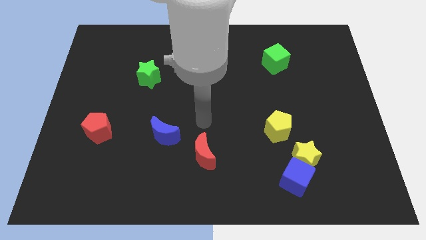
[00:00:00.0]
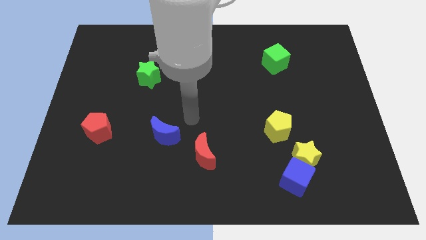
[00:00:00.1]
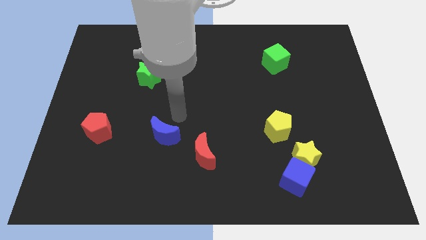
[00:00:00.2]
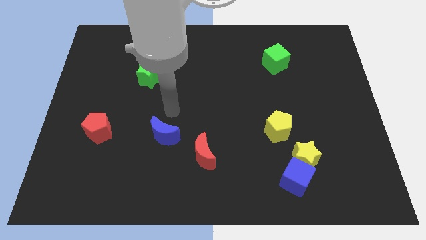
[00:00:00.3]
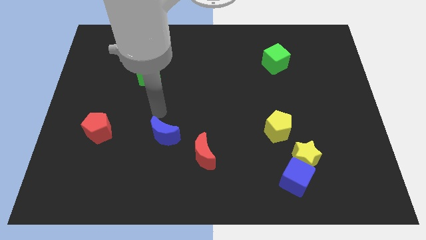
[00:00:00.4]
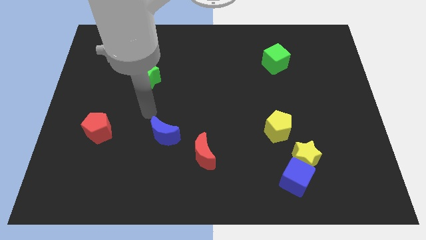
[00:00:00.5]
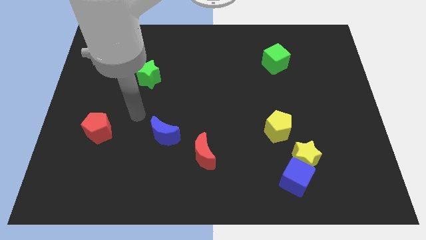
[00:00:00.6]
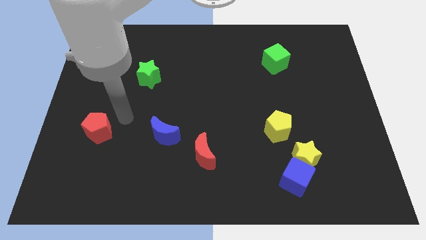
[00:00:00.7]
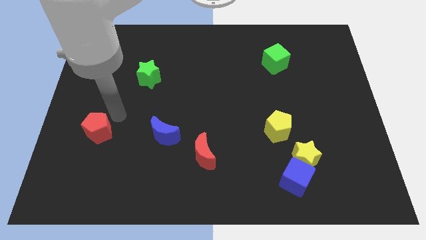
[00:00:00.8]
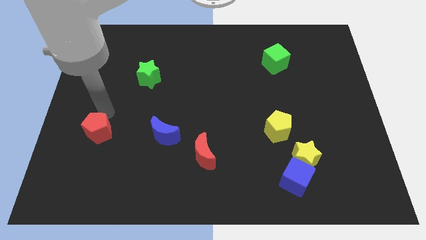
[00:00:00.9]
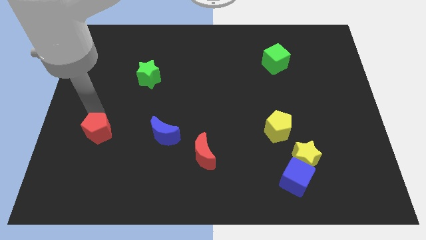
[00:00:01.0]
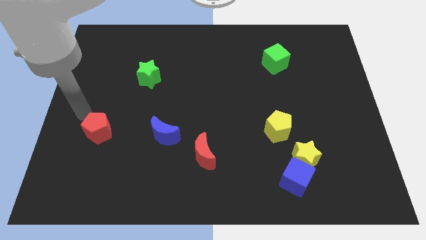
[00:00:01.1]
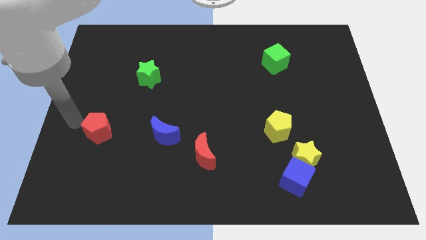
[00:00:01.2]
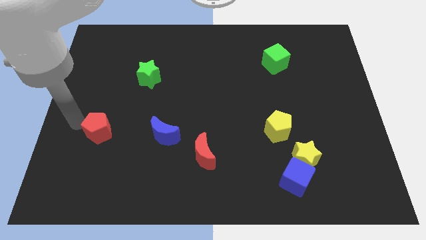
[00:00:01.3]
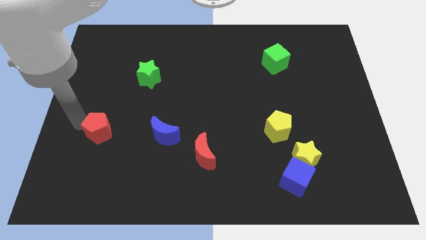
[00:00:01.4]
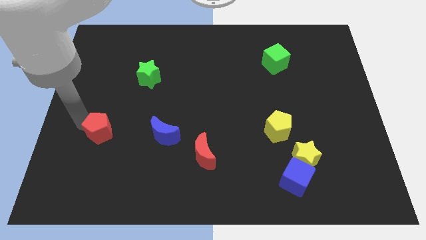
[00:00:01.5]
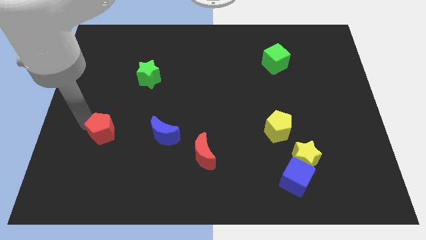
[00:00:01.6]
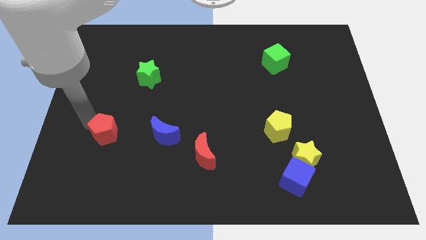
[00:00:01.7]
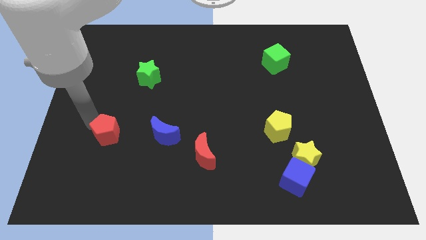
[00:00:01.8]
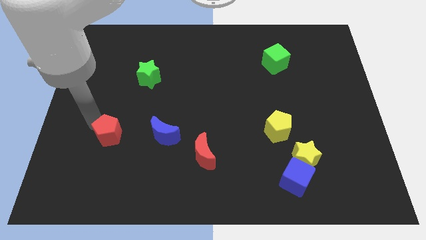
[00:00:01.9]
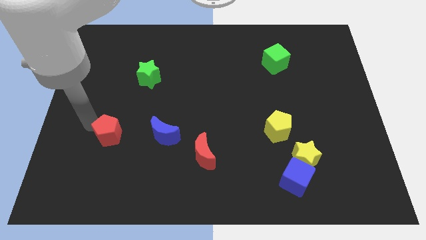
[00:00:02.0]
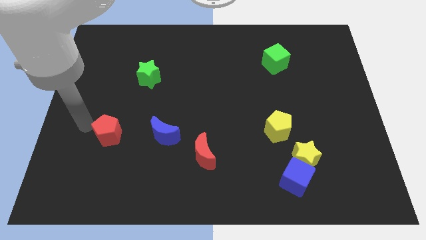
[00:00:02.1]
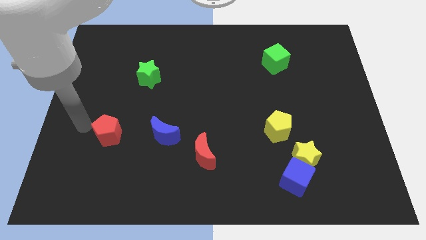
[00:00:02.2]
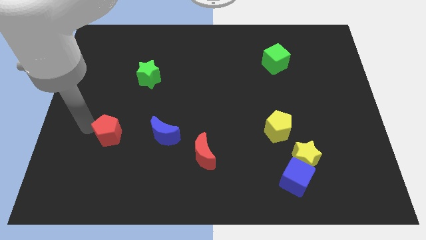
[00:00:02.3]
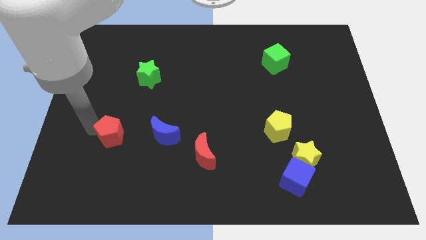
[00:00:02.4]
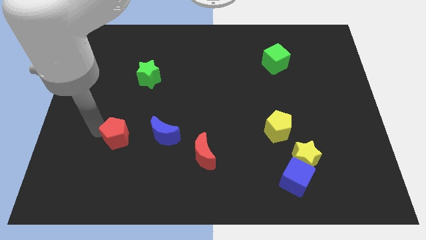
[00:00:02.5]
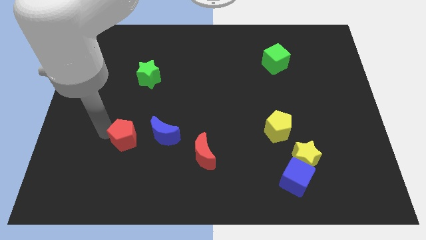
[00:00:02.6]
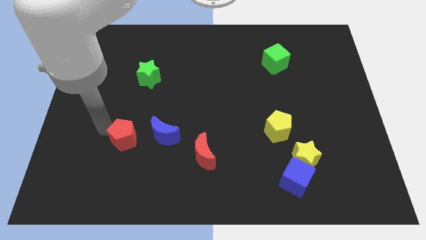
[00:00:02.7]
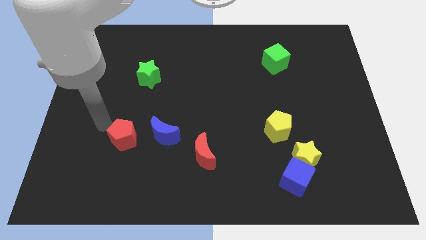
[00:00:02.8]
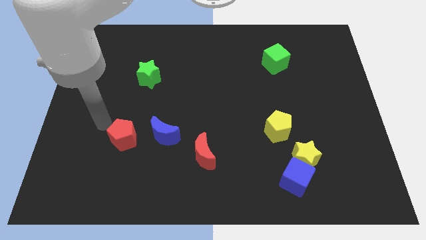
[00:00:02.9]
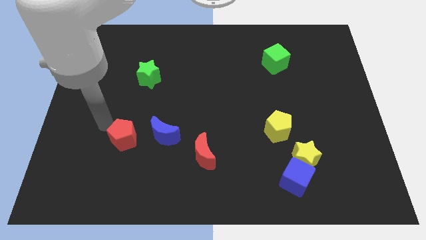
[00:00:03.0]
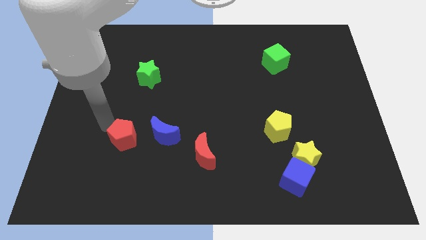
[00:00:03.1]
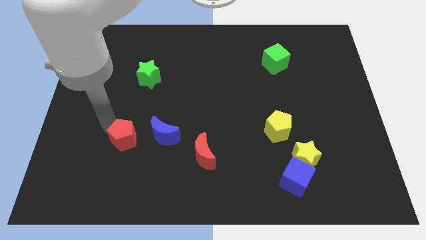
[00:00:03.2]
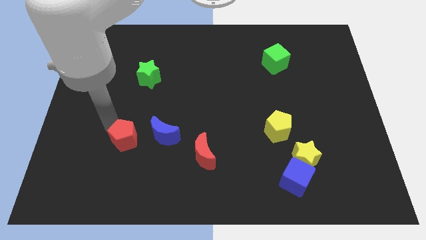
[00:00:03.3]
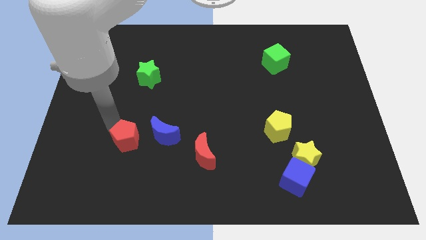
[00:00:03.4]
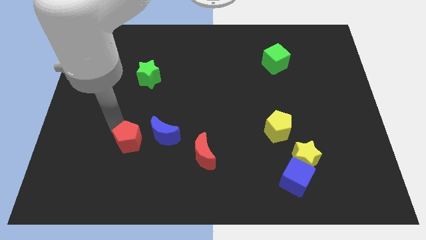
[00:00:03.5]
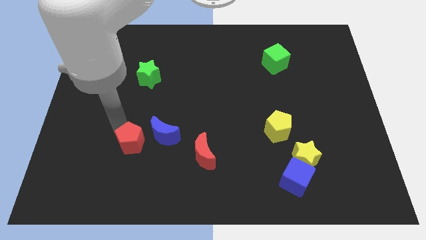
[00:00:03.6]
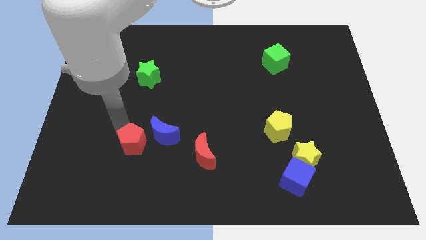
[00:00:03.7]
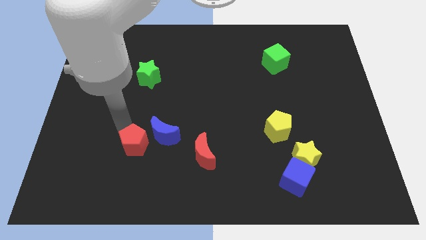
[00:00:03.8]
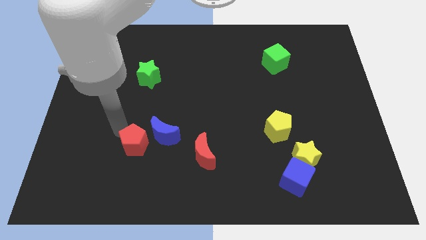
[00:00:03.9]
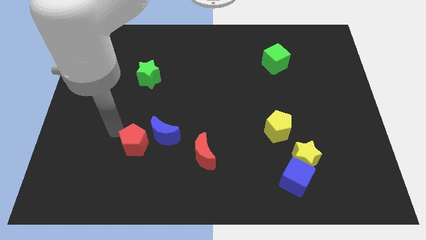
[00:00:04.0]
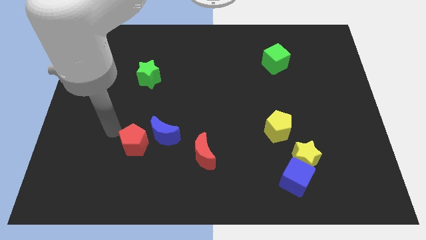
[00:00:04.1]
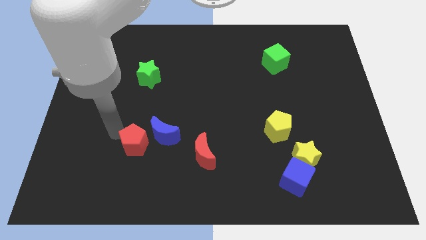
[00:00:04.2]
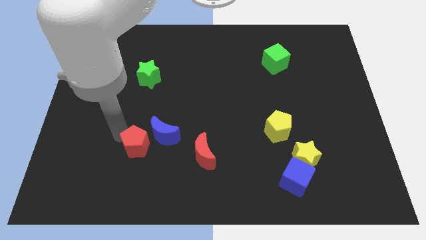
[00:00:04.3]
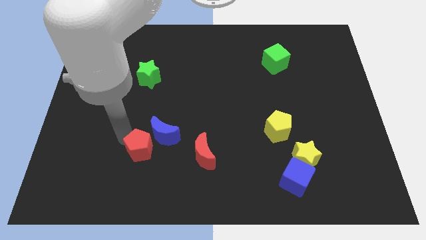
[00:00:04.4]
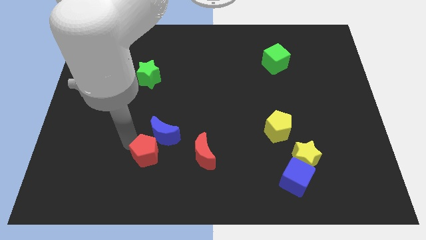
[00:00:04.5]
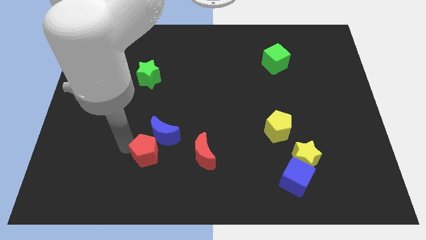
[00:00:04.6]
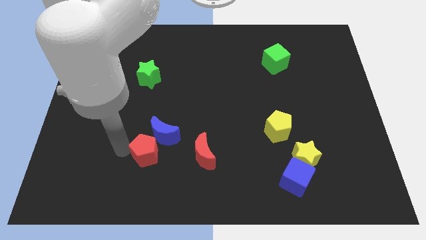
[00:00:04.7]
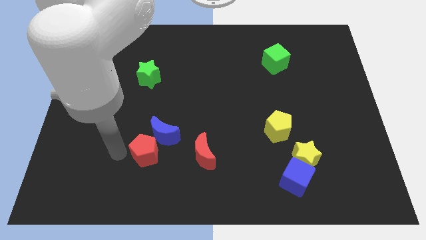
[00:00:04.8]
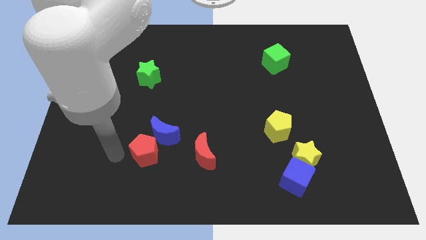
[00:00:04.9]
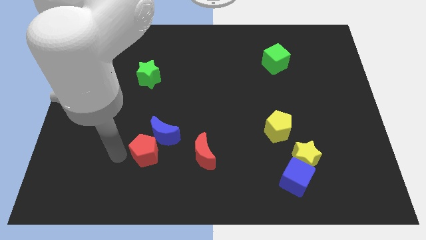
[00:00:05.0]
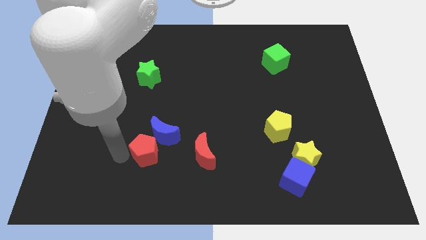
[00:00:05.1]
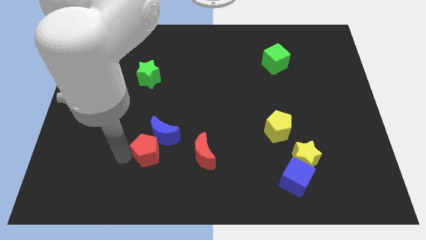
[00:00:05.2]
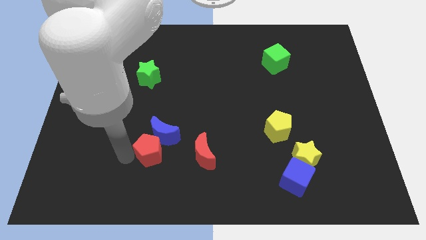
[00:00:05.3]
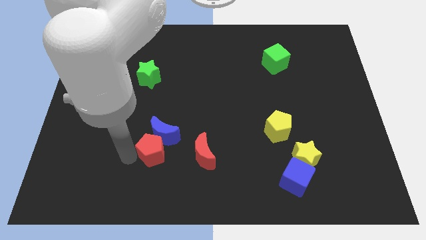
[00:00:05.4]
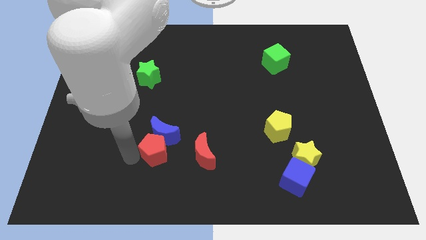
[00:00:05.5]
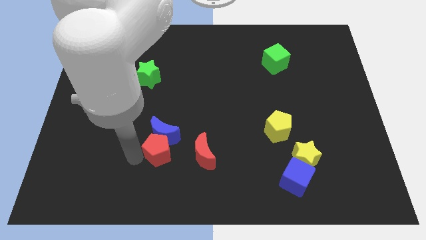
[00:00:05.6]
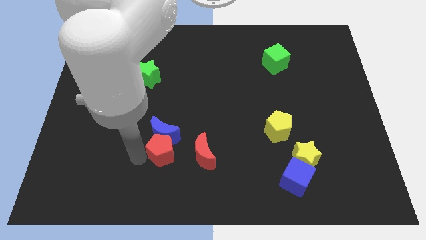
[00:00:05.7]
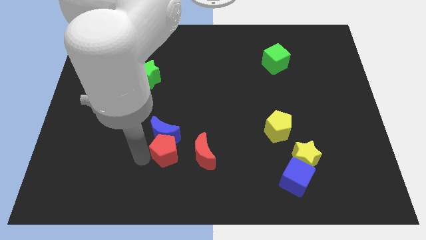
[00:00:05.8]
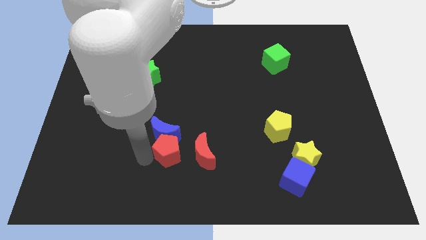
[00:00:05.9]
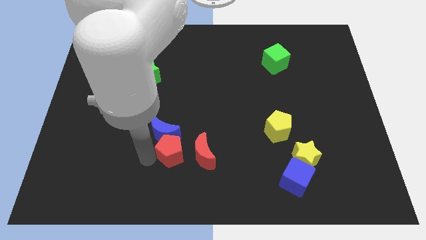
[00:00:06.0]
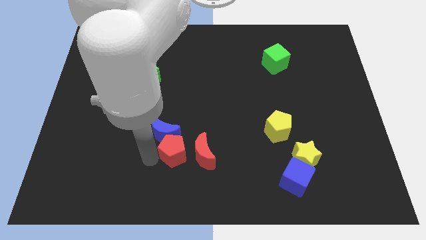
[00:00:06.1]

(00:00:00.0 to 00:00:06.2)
move the red pentagon towards the red moon

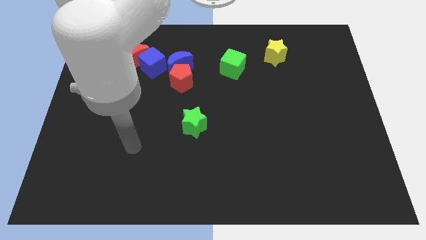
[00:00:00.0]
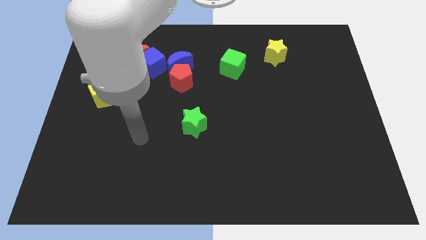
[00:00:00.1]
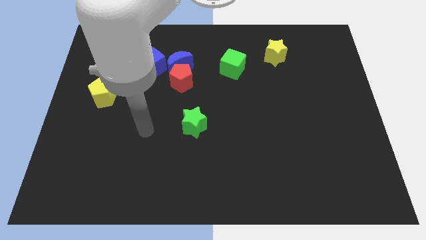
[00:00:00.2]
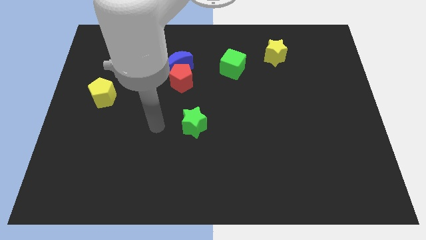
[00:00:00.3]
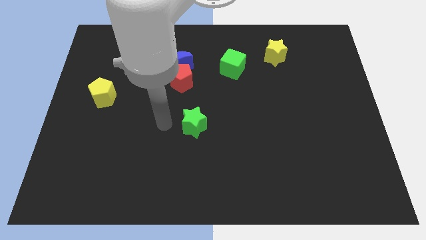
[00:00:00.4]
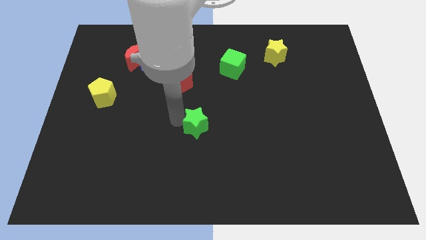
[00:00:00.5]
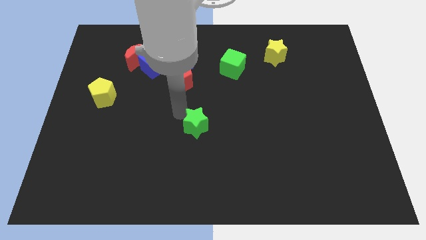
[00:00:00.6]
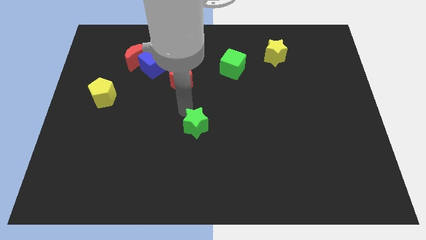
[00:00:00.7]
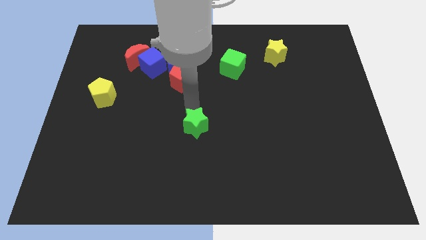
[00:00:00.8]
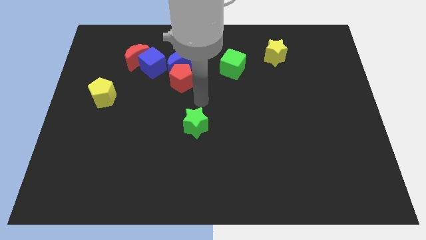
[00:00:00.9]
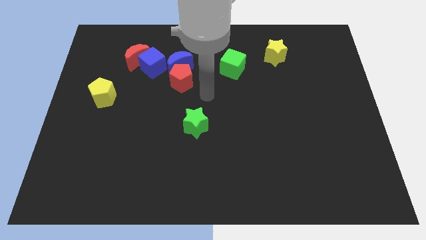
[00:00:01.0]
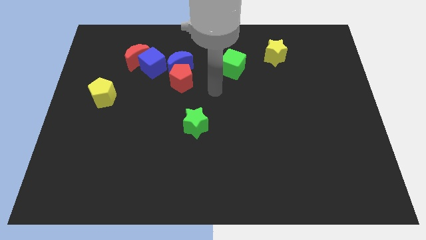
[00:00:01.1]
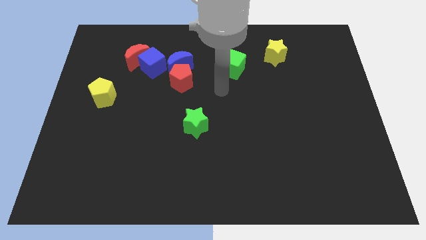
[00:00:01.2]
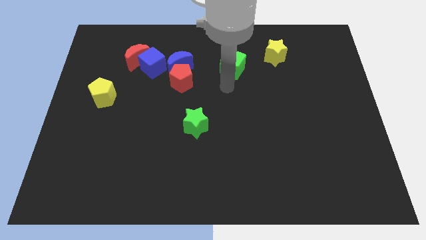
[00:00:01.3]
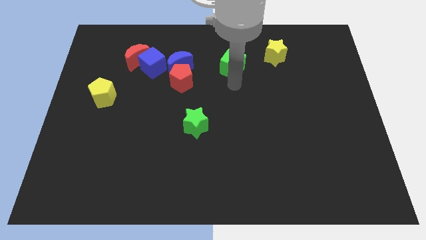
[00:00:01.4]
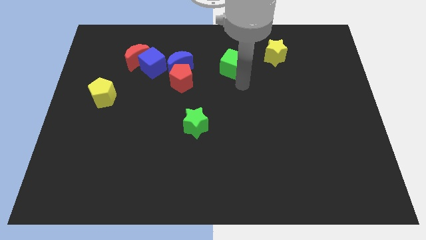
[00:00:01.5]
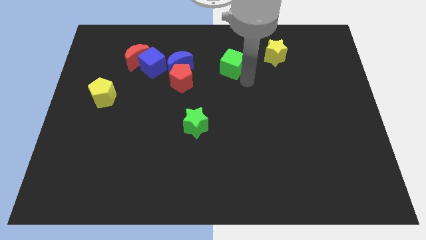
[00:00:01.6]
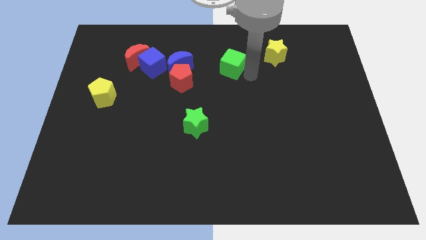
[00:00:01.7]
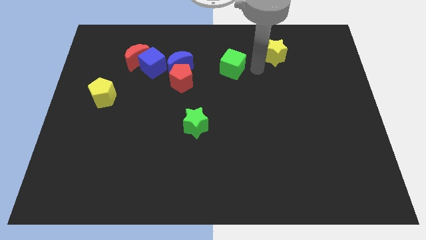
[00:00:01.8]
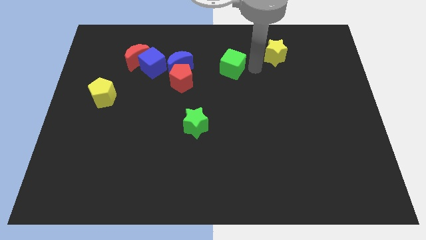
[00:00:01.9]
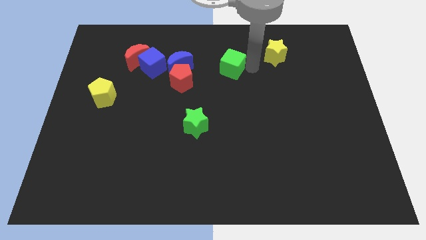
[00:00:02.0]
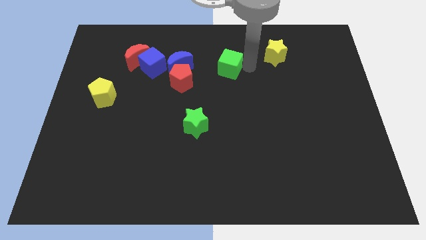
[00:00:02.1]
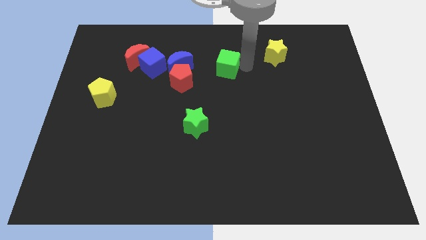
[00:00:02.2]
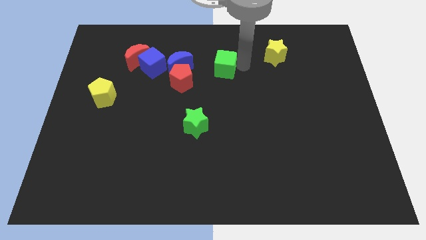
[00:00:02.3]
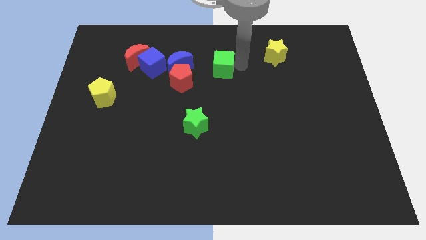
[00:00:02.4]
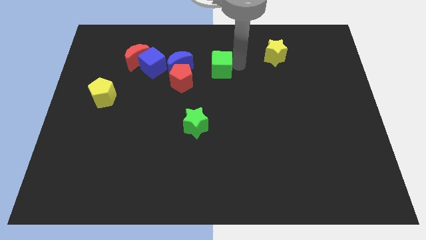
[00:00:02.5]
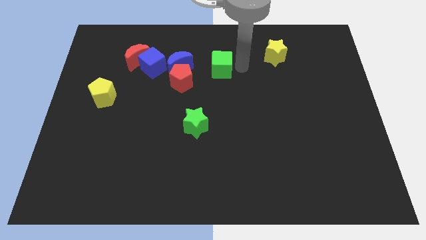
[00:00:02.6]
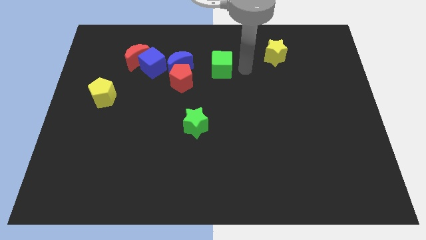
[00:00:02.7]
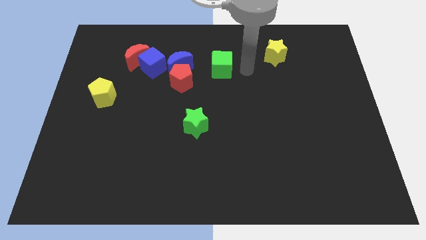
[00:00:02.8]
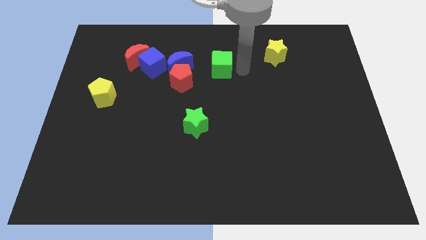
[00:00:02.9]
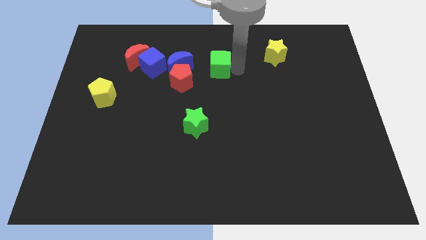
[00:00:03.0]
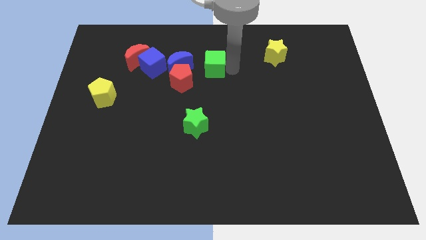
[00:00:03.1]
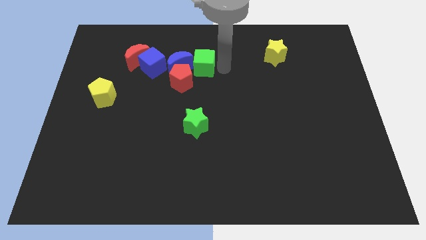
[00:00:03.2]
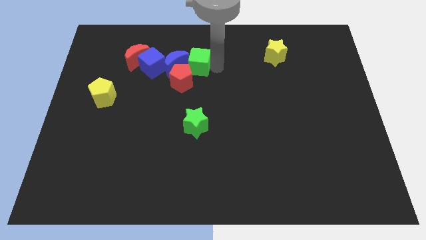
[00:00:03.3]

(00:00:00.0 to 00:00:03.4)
slide the green cube next to the blue moon
